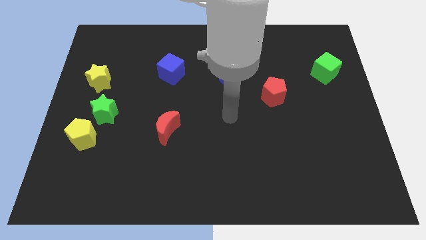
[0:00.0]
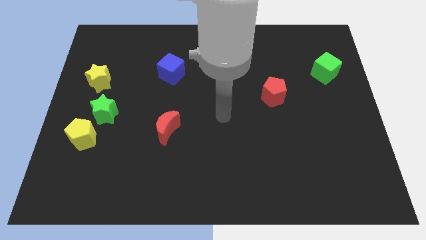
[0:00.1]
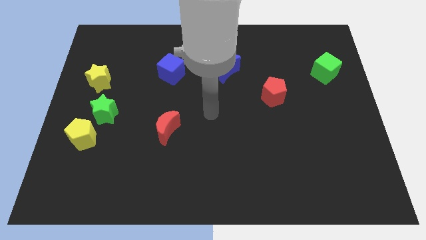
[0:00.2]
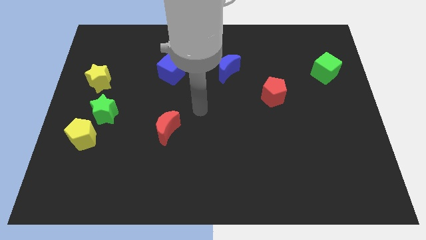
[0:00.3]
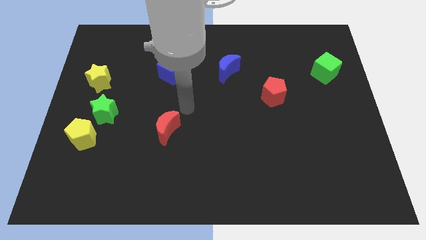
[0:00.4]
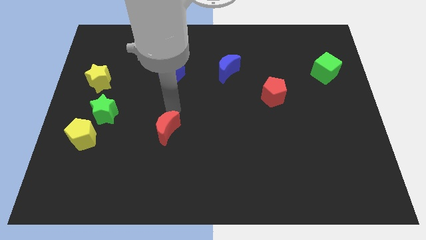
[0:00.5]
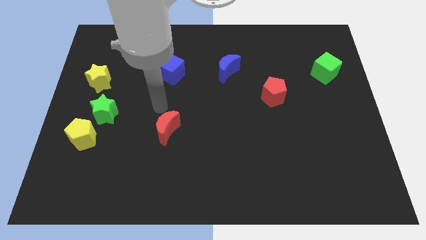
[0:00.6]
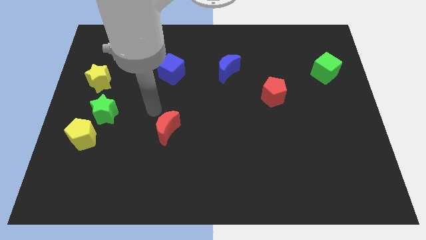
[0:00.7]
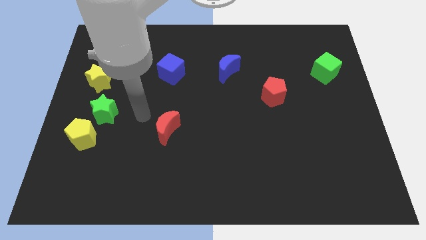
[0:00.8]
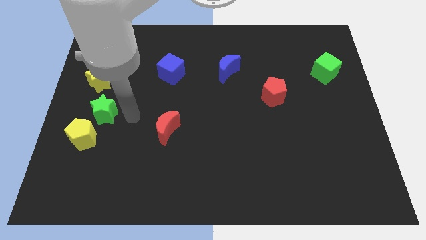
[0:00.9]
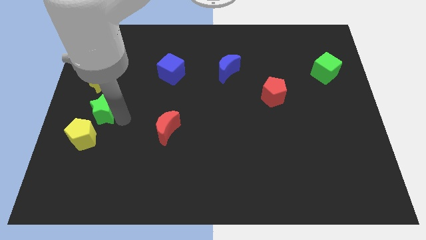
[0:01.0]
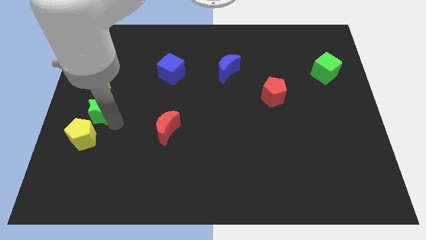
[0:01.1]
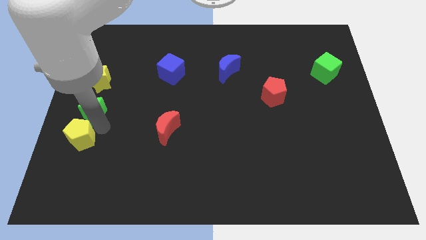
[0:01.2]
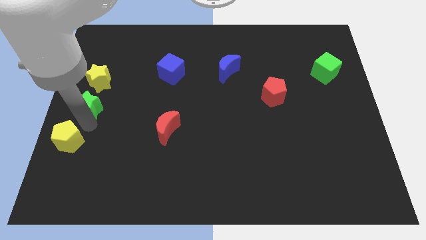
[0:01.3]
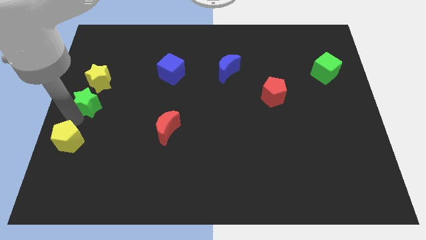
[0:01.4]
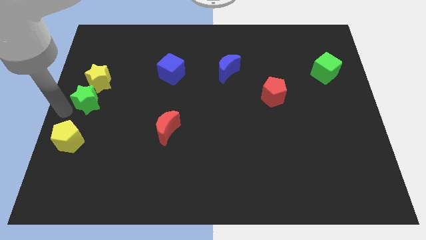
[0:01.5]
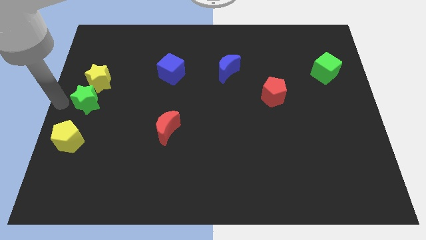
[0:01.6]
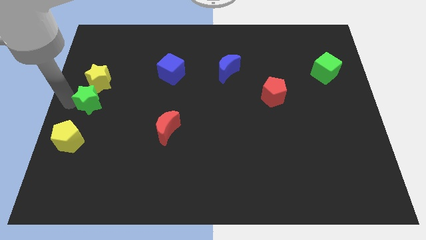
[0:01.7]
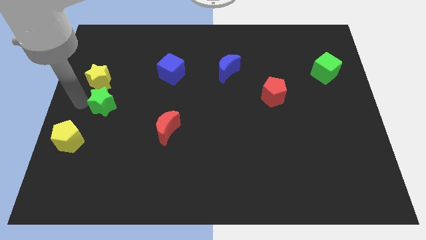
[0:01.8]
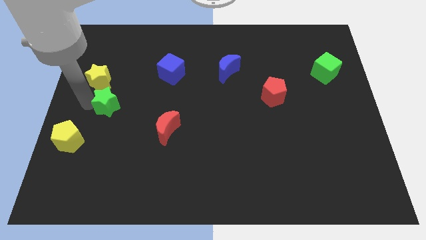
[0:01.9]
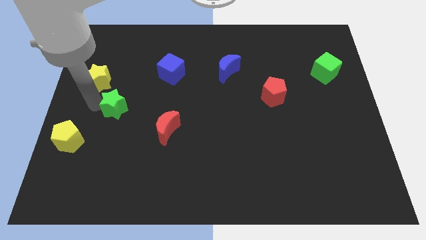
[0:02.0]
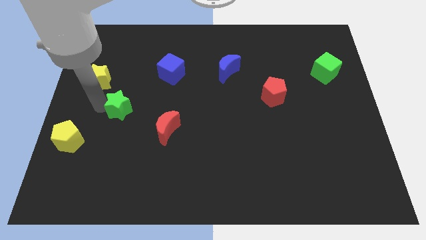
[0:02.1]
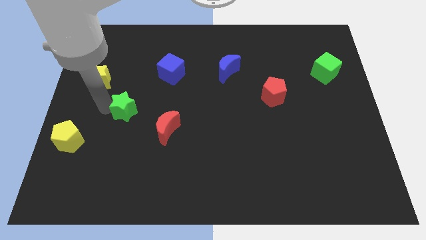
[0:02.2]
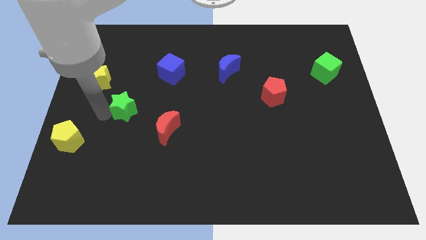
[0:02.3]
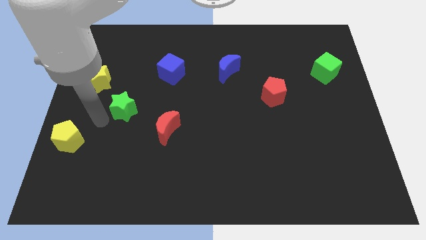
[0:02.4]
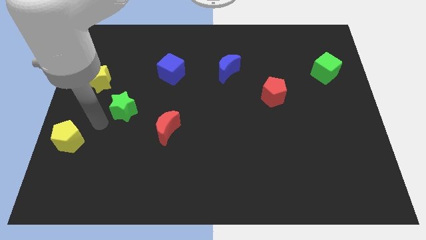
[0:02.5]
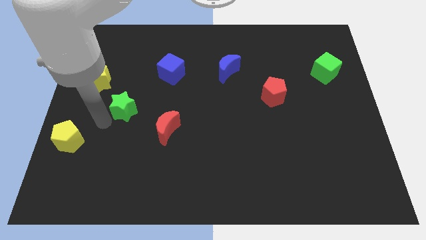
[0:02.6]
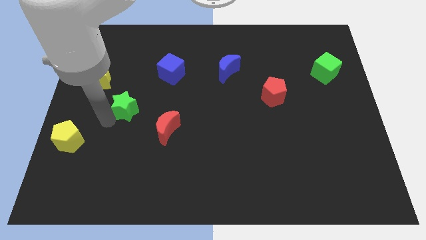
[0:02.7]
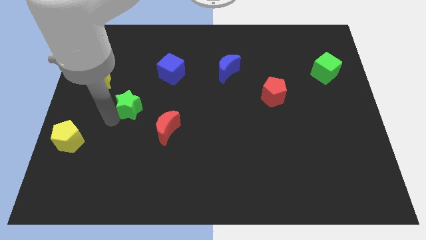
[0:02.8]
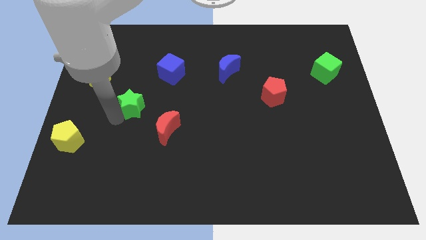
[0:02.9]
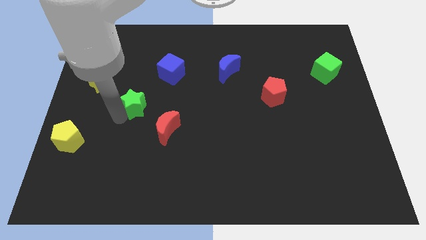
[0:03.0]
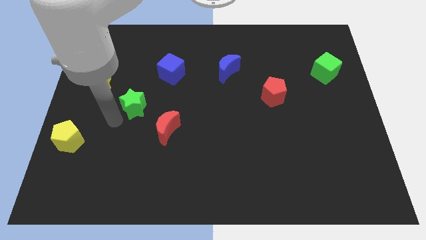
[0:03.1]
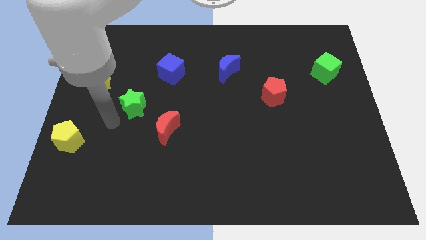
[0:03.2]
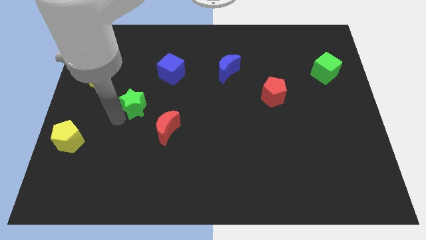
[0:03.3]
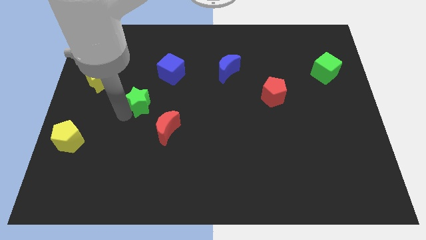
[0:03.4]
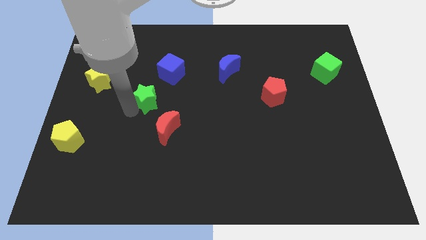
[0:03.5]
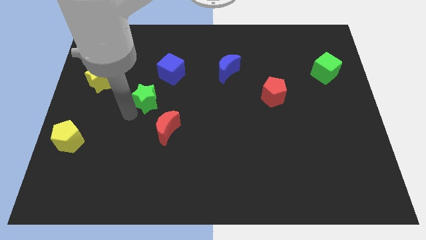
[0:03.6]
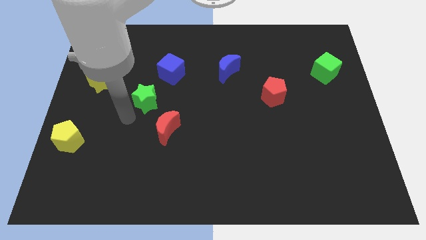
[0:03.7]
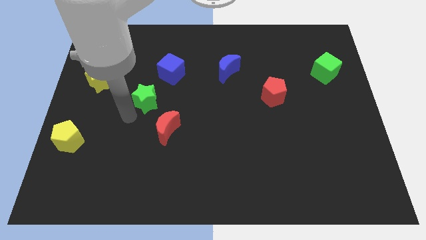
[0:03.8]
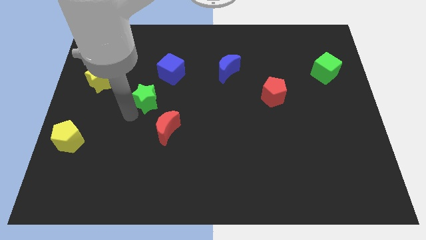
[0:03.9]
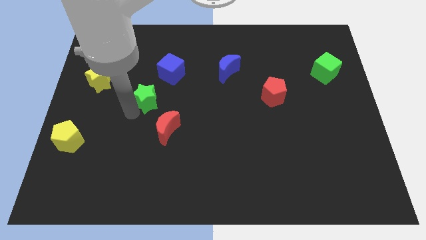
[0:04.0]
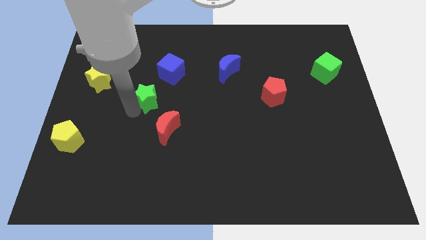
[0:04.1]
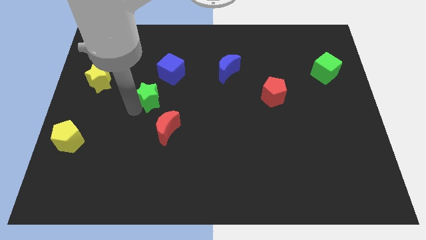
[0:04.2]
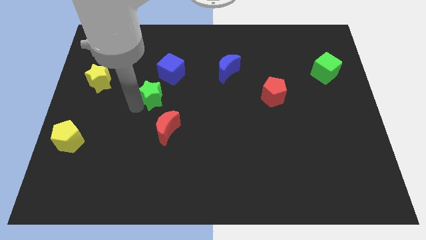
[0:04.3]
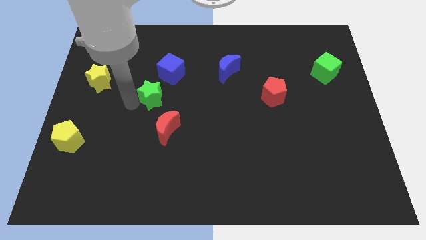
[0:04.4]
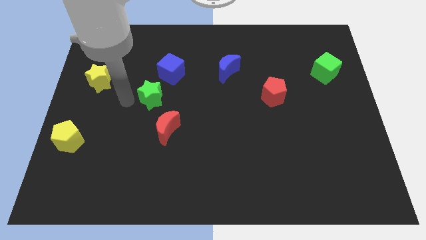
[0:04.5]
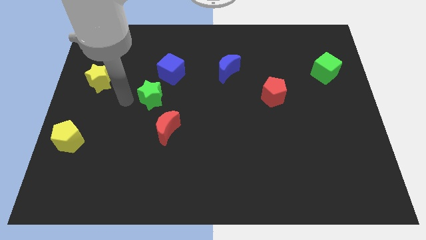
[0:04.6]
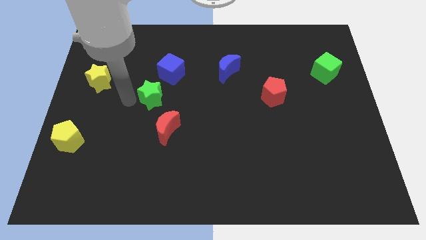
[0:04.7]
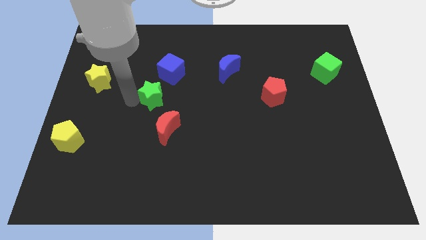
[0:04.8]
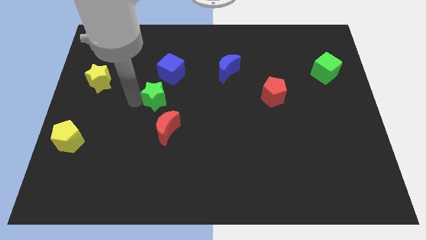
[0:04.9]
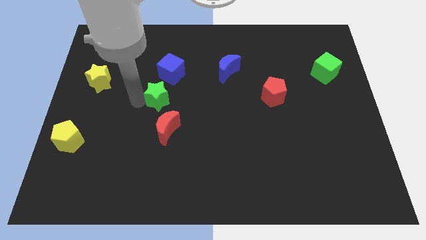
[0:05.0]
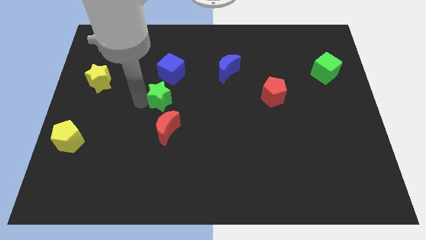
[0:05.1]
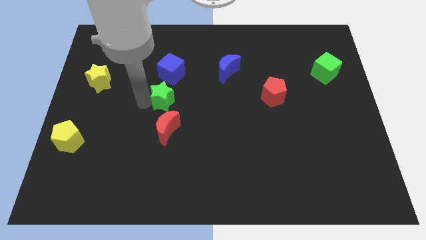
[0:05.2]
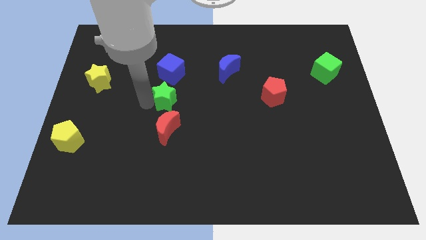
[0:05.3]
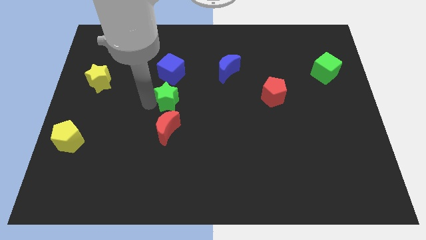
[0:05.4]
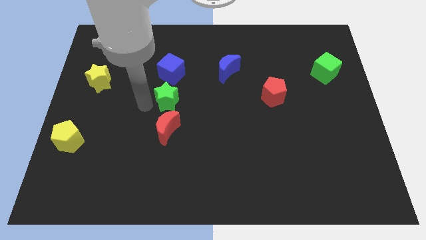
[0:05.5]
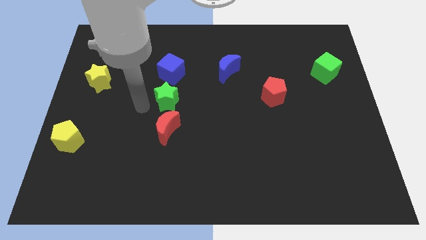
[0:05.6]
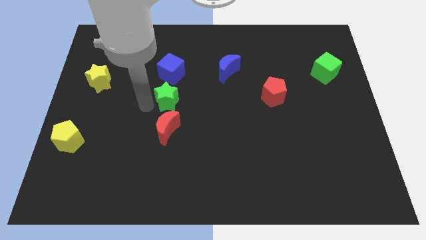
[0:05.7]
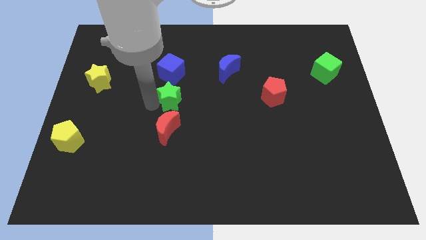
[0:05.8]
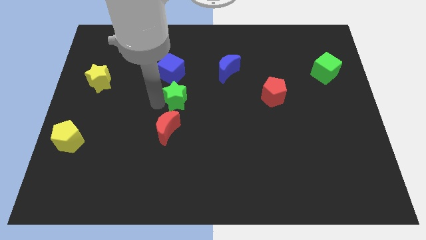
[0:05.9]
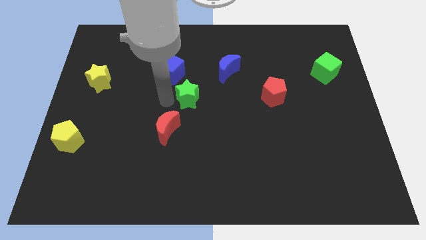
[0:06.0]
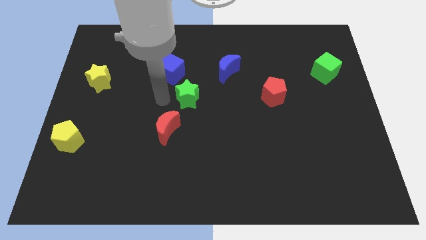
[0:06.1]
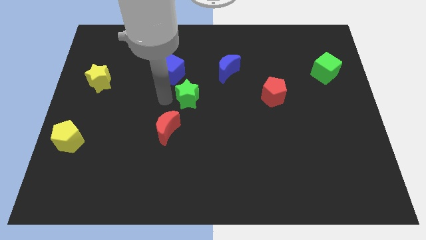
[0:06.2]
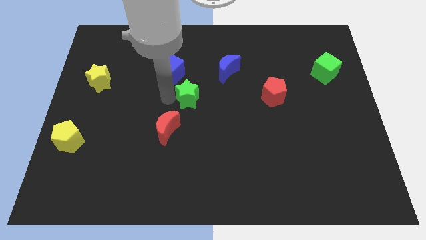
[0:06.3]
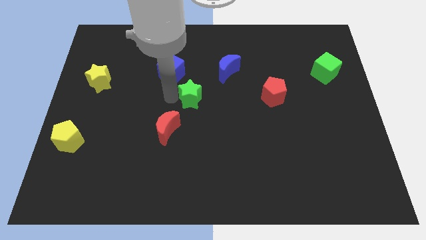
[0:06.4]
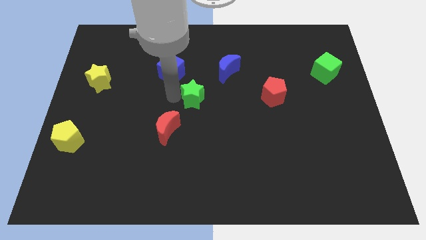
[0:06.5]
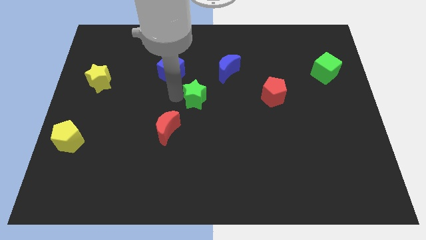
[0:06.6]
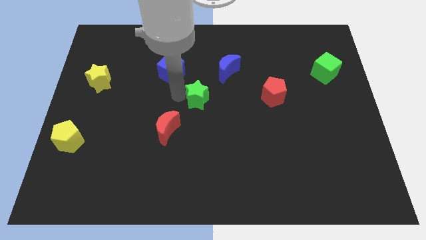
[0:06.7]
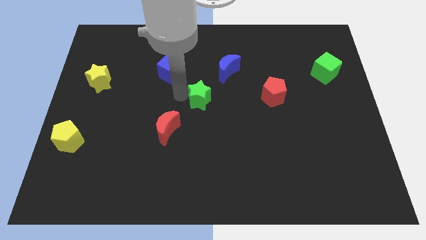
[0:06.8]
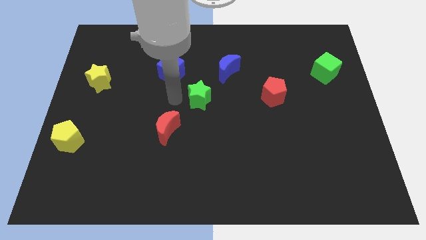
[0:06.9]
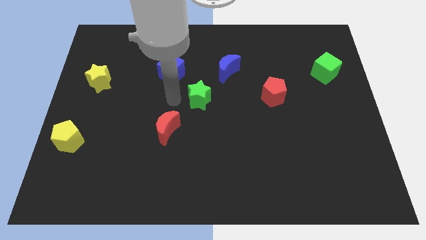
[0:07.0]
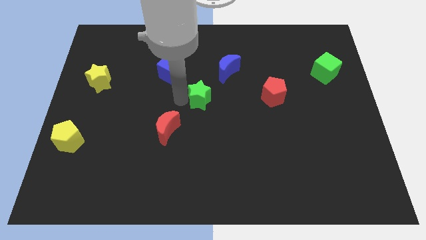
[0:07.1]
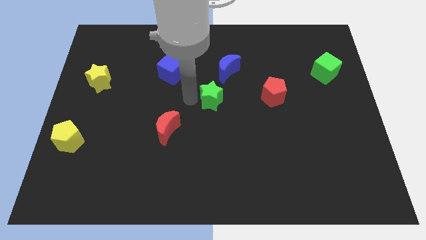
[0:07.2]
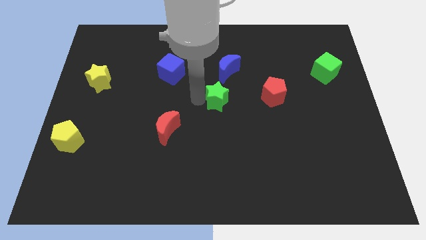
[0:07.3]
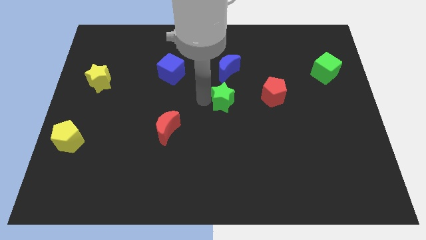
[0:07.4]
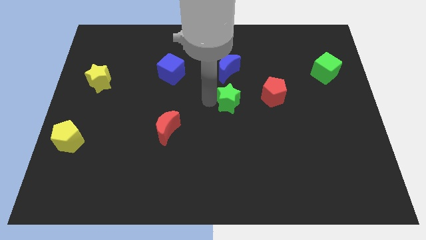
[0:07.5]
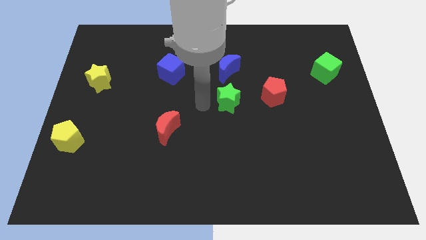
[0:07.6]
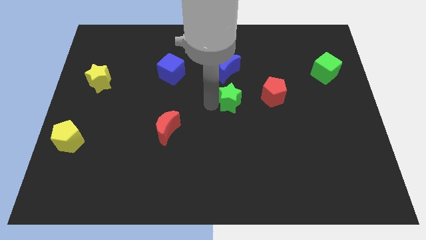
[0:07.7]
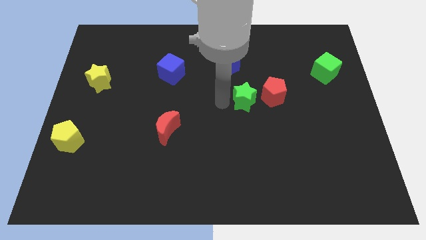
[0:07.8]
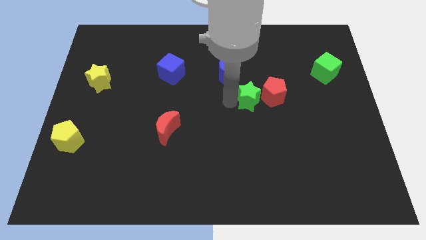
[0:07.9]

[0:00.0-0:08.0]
push the green star next to the red pentagon
